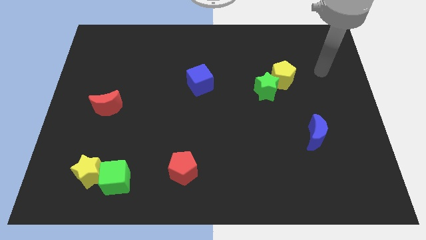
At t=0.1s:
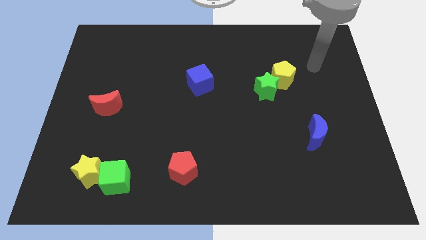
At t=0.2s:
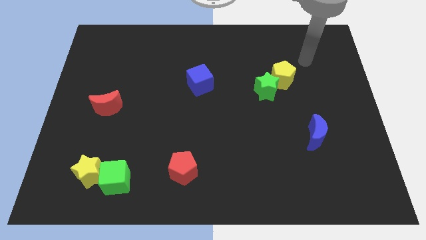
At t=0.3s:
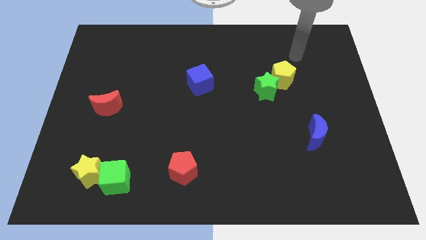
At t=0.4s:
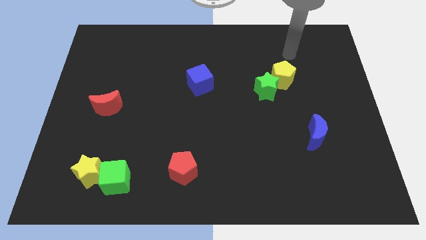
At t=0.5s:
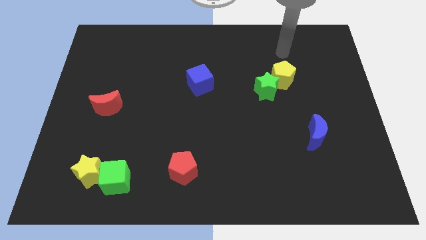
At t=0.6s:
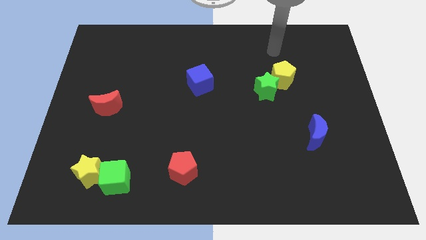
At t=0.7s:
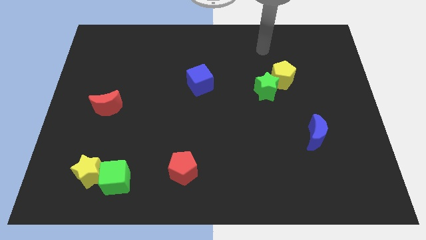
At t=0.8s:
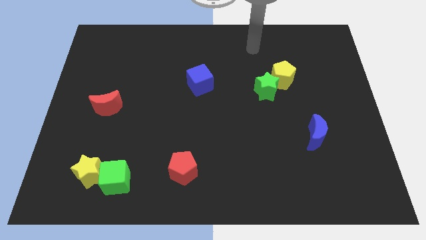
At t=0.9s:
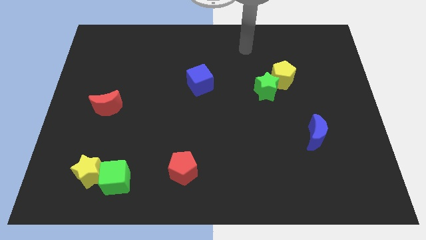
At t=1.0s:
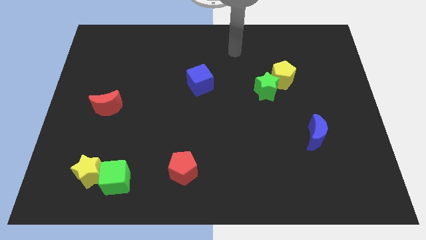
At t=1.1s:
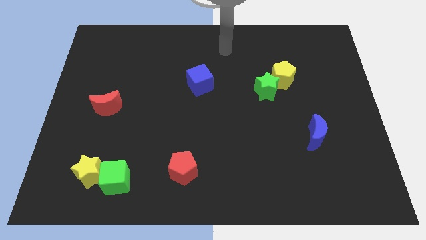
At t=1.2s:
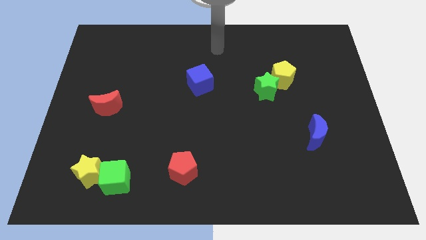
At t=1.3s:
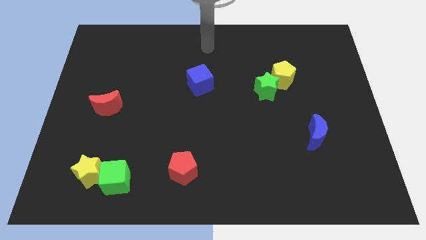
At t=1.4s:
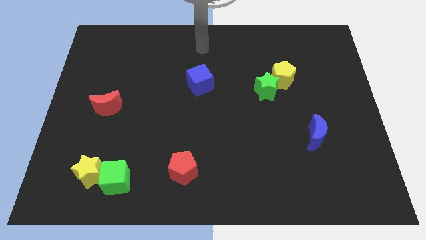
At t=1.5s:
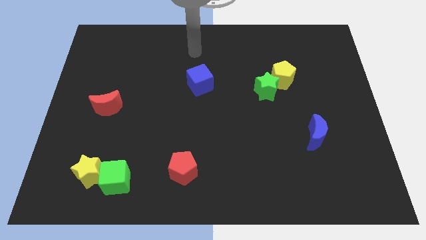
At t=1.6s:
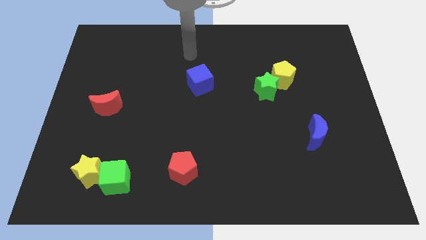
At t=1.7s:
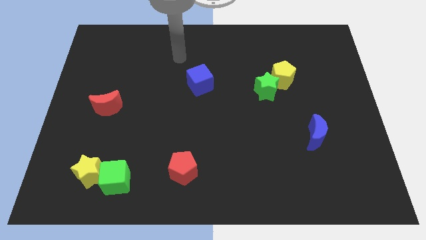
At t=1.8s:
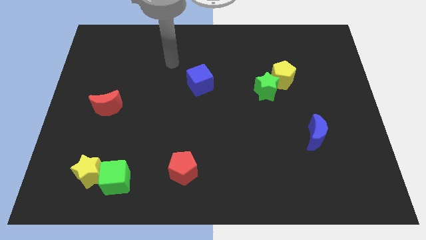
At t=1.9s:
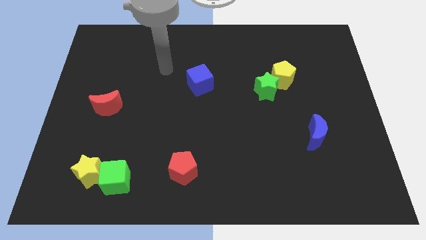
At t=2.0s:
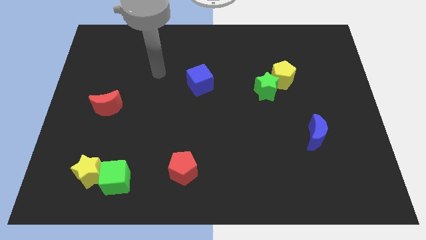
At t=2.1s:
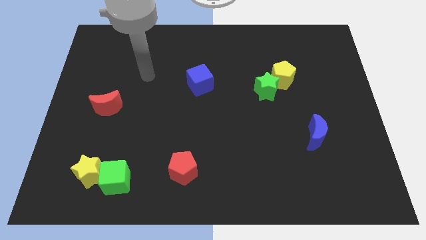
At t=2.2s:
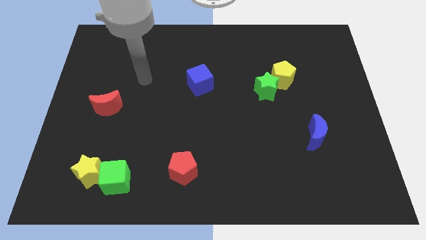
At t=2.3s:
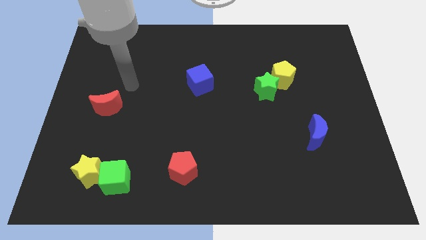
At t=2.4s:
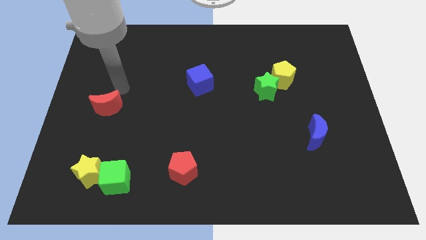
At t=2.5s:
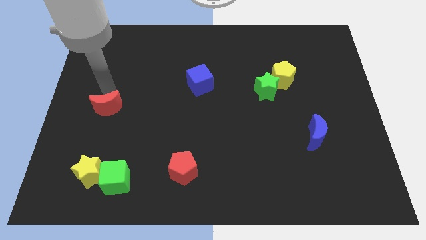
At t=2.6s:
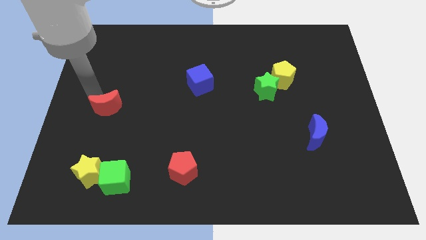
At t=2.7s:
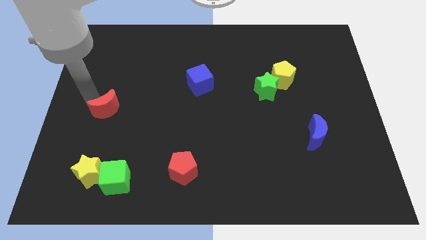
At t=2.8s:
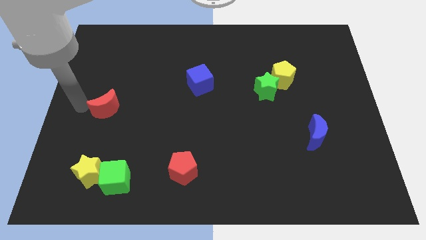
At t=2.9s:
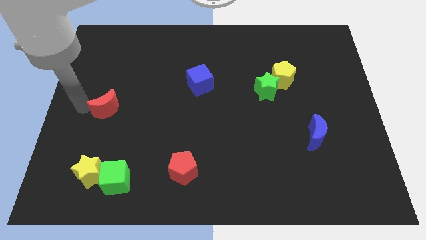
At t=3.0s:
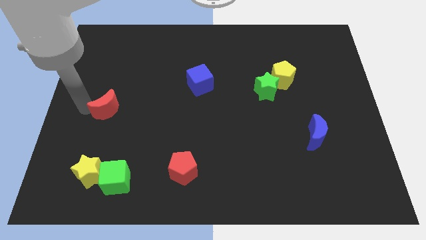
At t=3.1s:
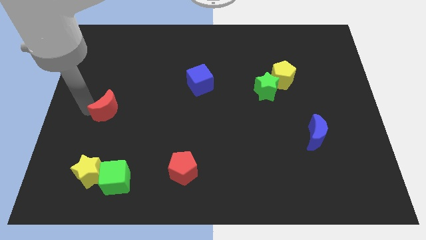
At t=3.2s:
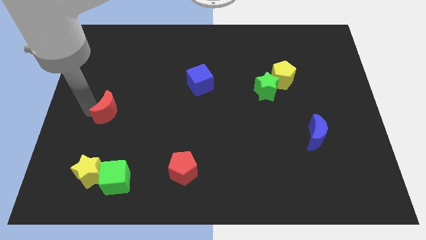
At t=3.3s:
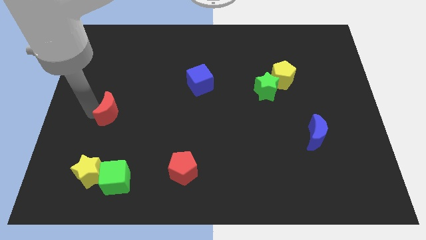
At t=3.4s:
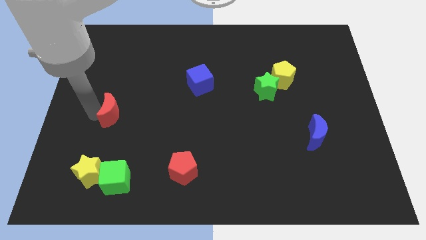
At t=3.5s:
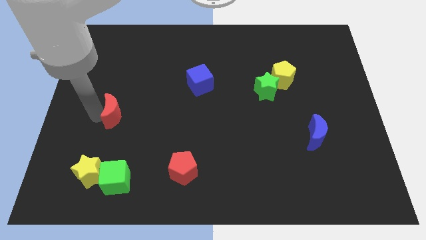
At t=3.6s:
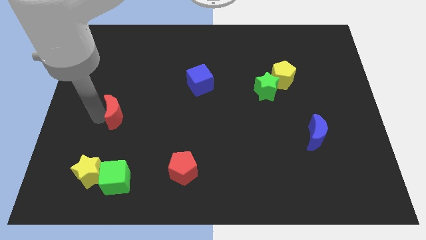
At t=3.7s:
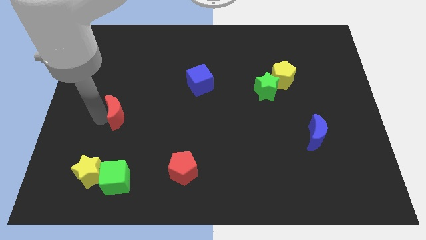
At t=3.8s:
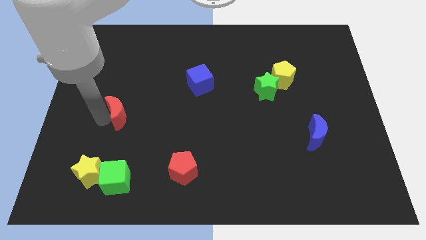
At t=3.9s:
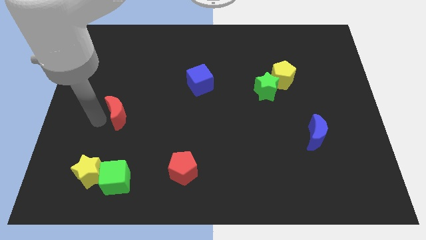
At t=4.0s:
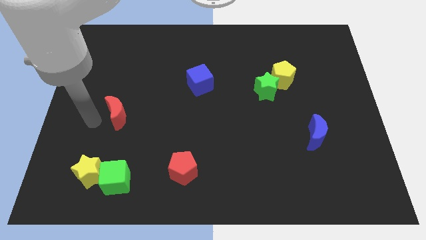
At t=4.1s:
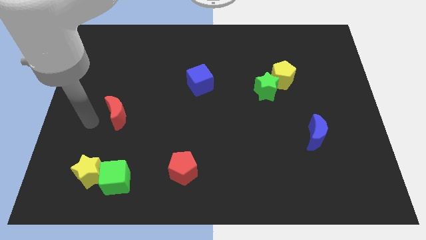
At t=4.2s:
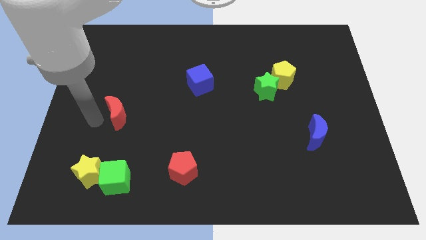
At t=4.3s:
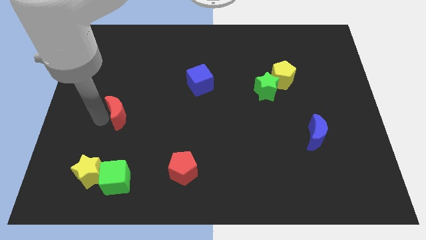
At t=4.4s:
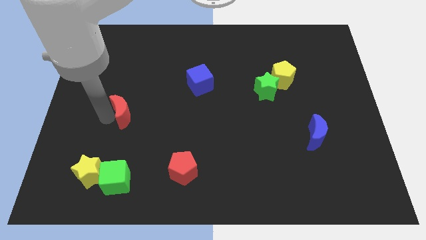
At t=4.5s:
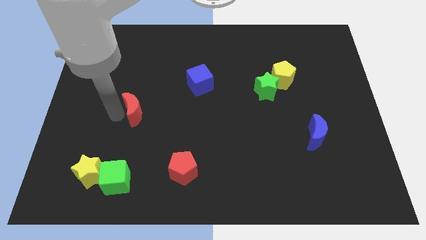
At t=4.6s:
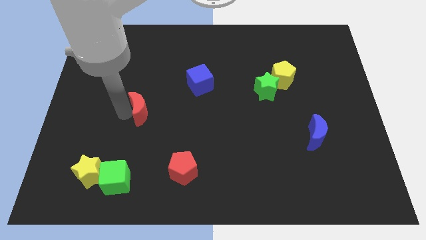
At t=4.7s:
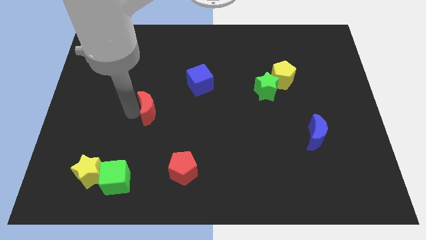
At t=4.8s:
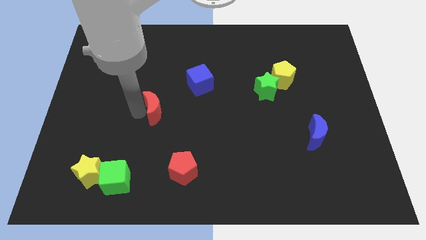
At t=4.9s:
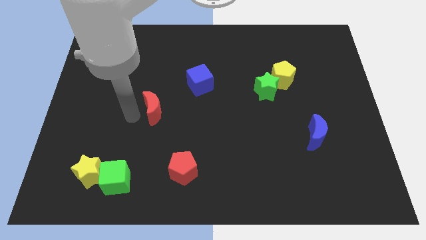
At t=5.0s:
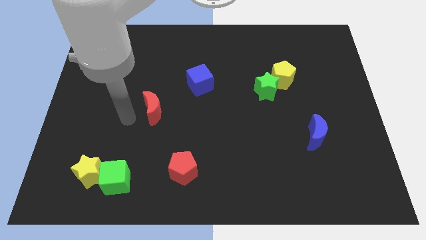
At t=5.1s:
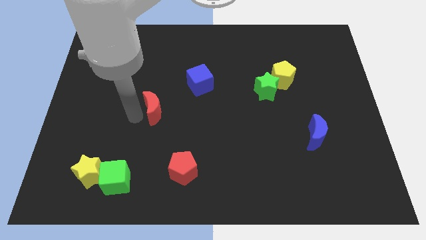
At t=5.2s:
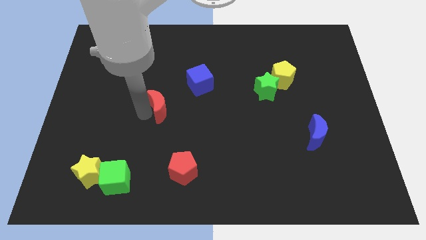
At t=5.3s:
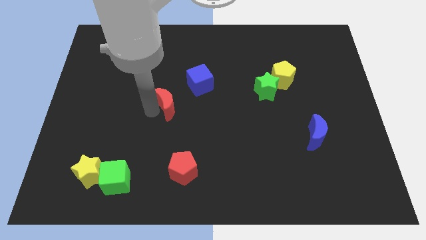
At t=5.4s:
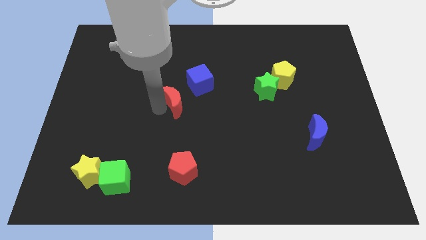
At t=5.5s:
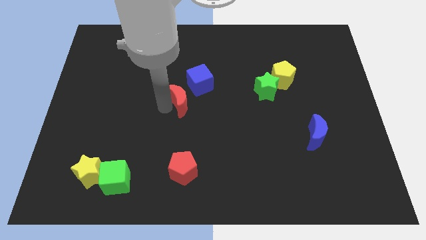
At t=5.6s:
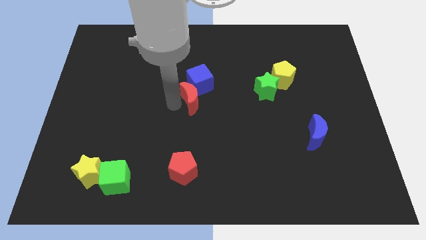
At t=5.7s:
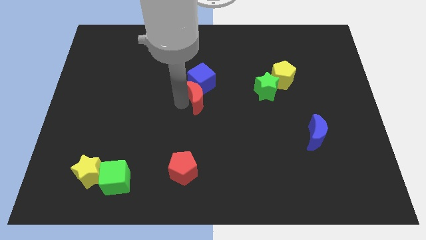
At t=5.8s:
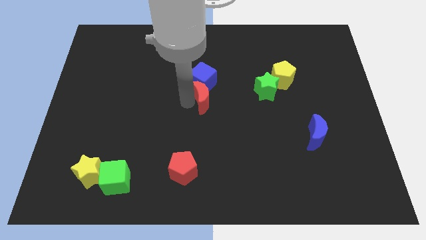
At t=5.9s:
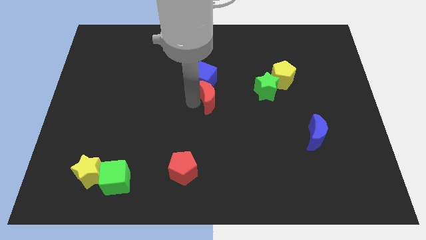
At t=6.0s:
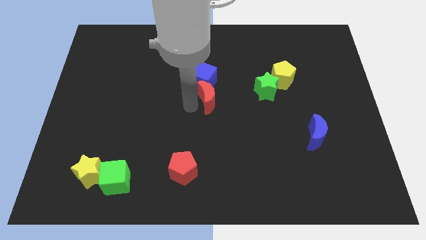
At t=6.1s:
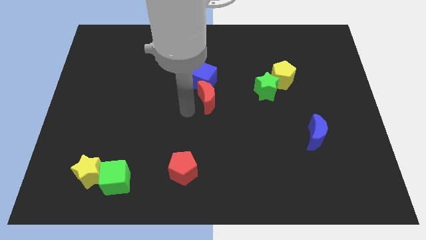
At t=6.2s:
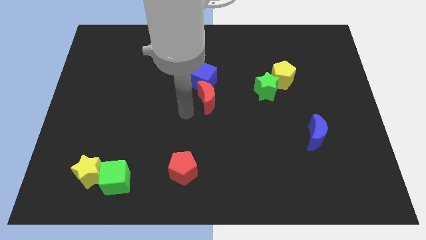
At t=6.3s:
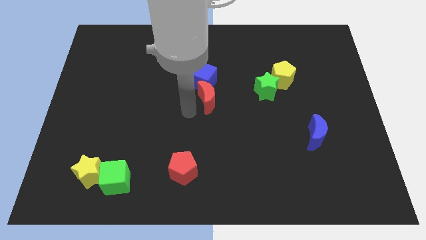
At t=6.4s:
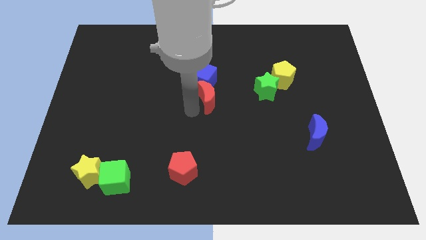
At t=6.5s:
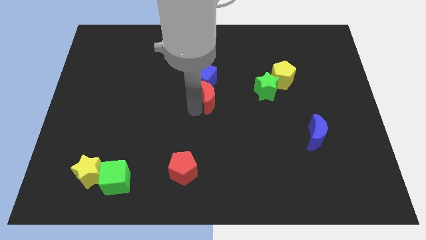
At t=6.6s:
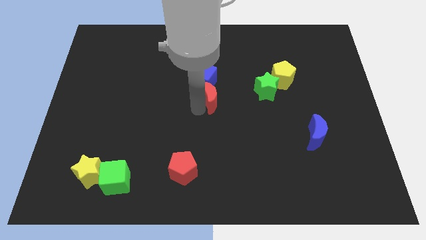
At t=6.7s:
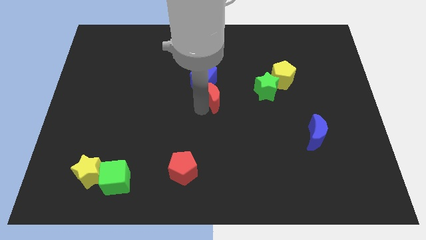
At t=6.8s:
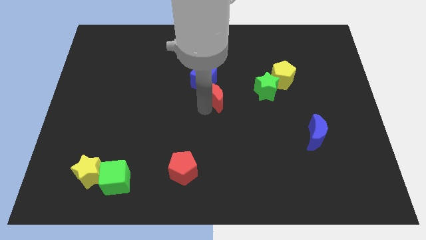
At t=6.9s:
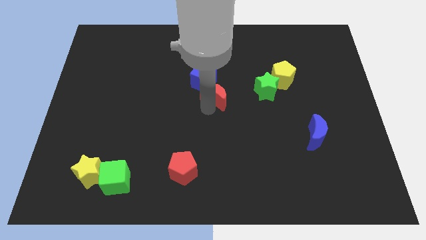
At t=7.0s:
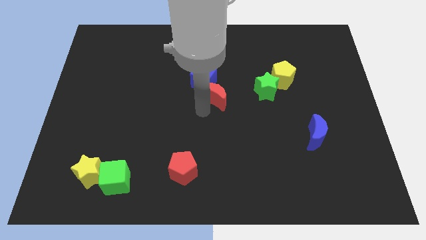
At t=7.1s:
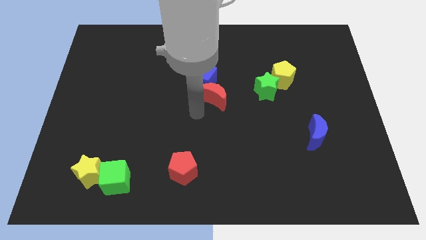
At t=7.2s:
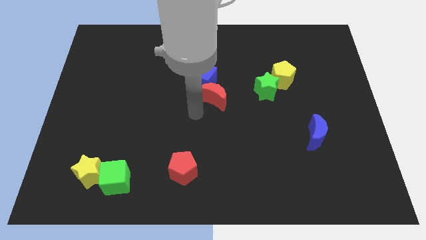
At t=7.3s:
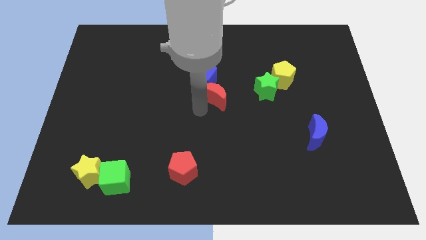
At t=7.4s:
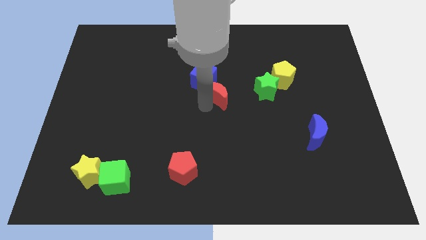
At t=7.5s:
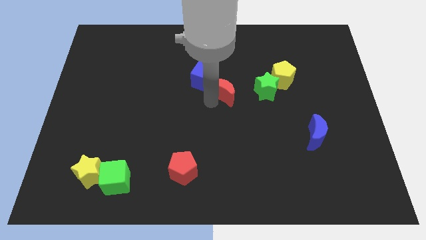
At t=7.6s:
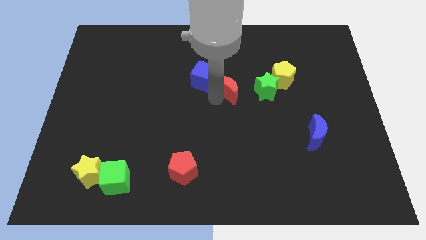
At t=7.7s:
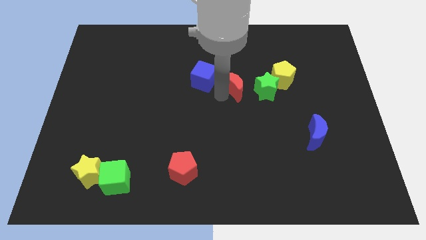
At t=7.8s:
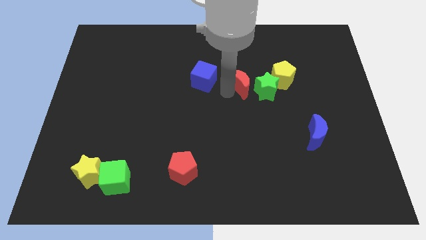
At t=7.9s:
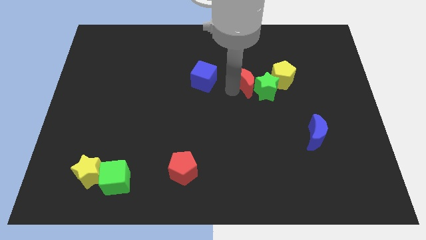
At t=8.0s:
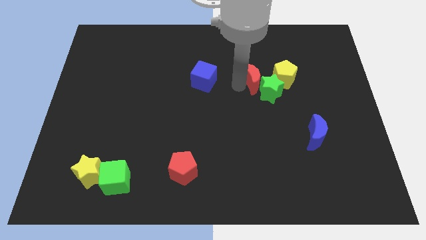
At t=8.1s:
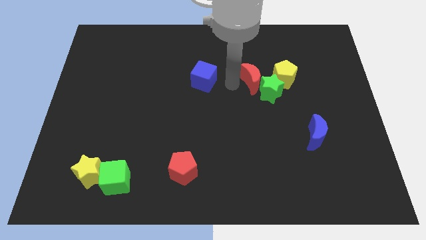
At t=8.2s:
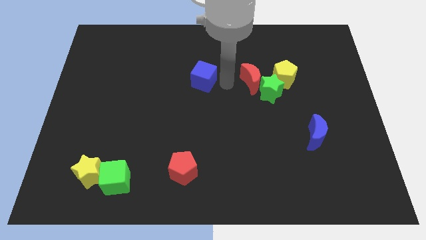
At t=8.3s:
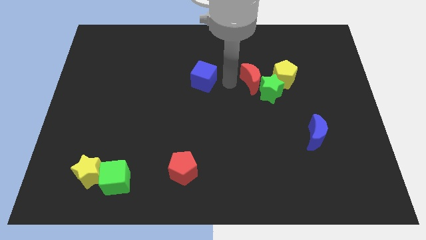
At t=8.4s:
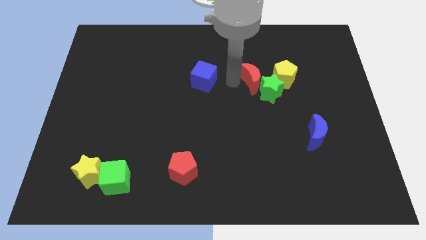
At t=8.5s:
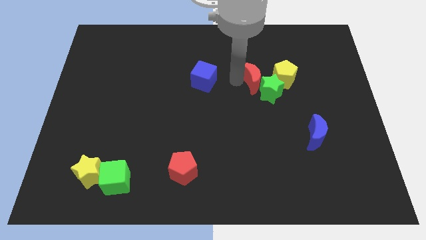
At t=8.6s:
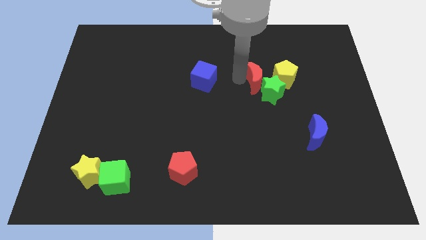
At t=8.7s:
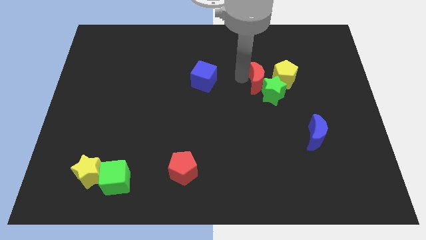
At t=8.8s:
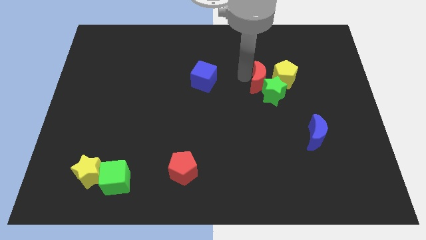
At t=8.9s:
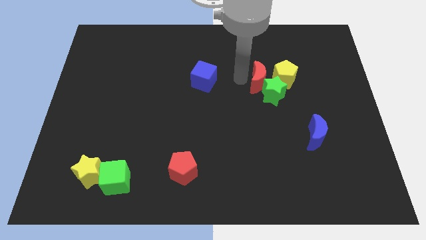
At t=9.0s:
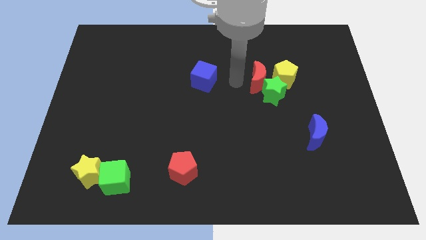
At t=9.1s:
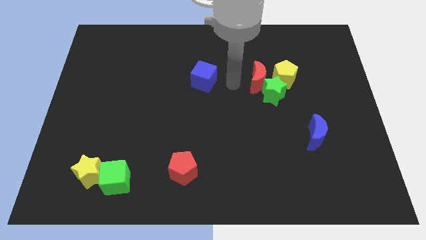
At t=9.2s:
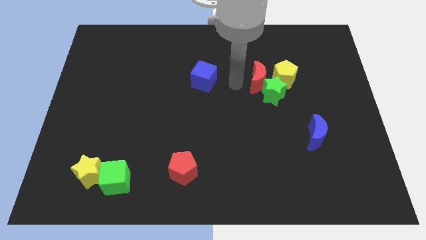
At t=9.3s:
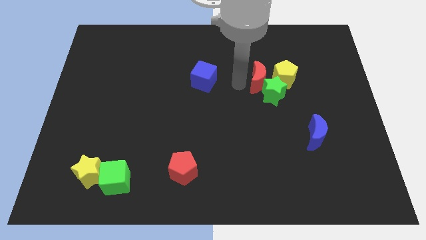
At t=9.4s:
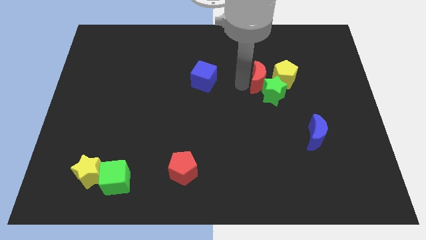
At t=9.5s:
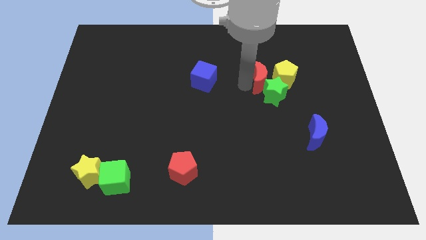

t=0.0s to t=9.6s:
push the red moon towards the yellow pentagon
